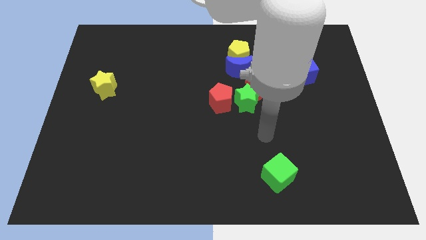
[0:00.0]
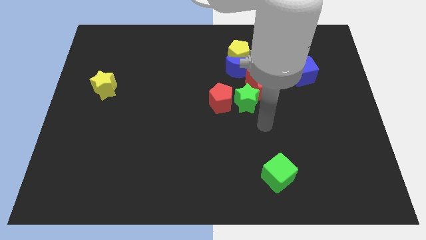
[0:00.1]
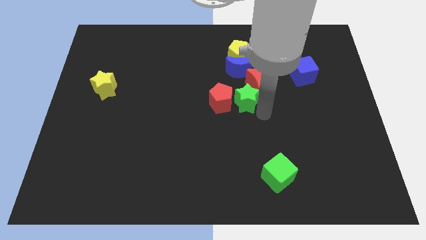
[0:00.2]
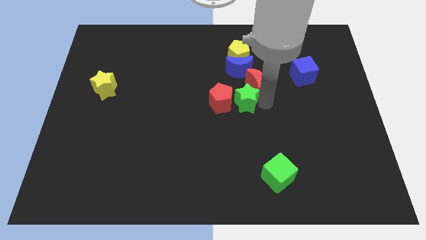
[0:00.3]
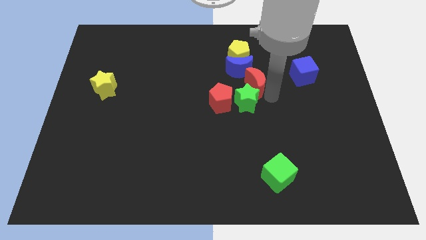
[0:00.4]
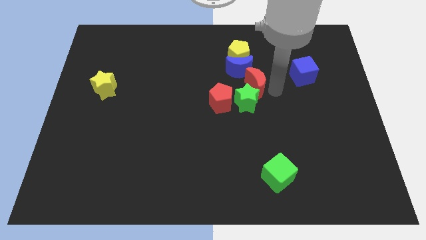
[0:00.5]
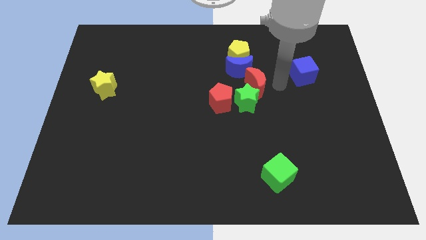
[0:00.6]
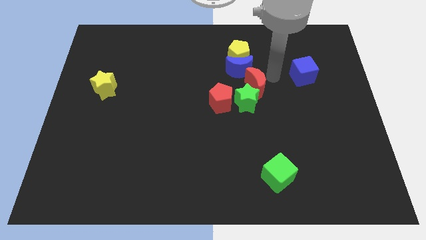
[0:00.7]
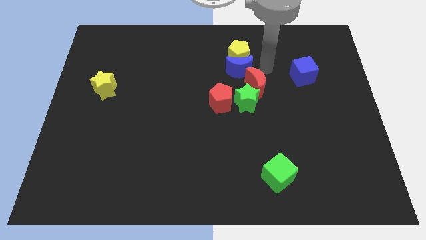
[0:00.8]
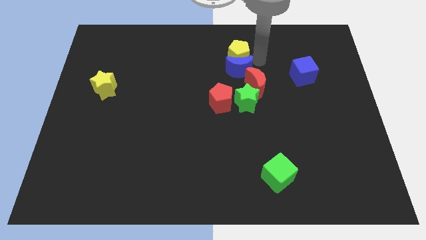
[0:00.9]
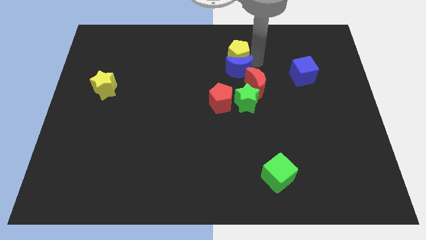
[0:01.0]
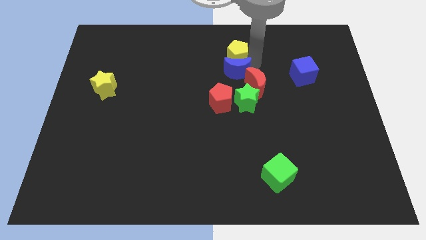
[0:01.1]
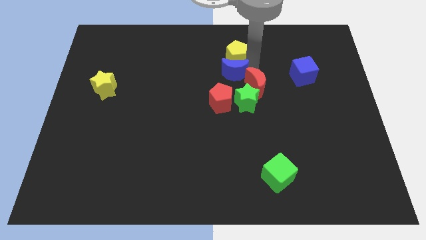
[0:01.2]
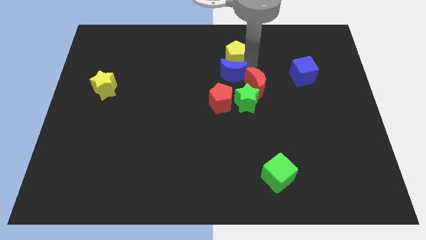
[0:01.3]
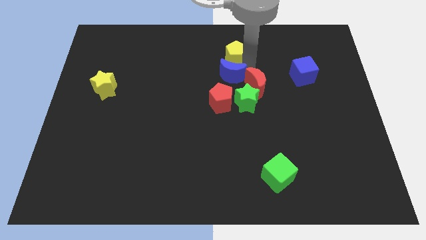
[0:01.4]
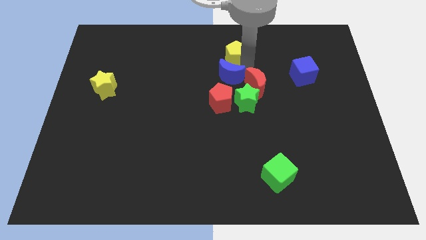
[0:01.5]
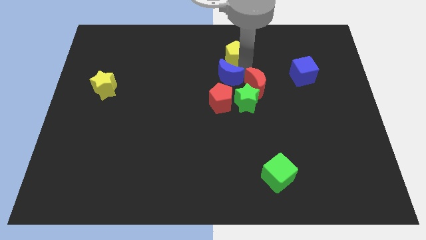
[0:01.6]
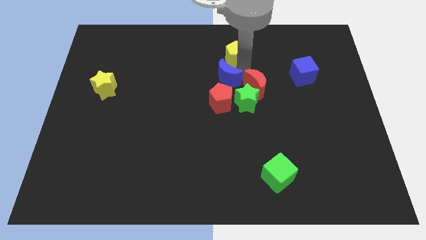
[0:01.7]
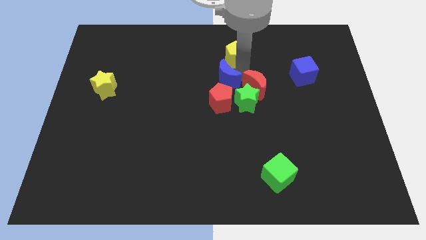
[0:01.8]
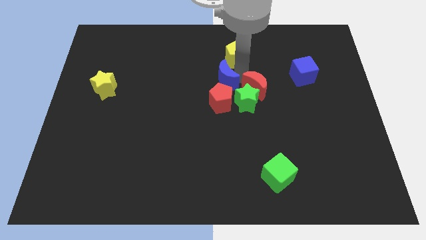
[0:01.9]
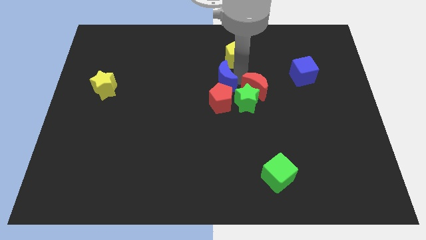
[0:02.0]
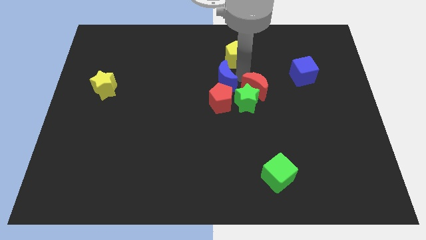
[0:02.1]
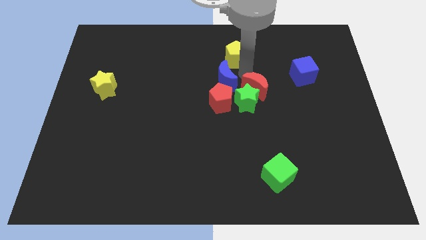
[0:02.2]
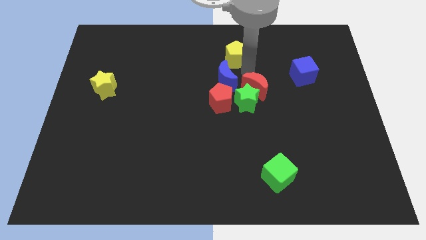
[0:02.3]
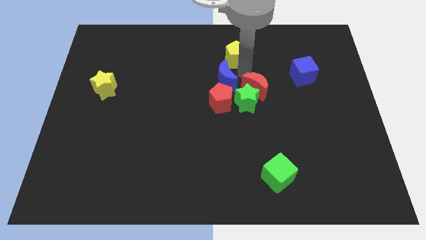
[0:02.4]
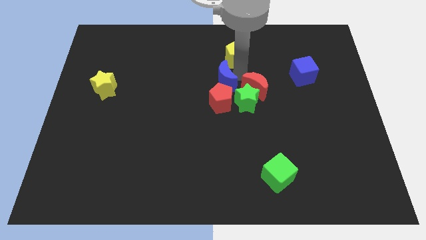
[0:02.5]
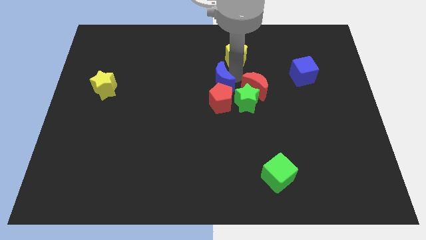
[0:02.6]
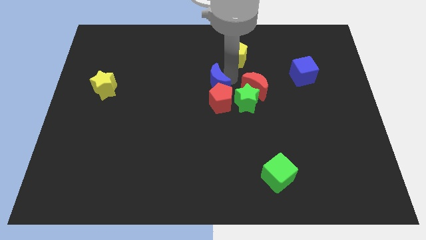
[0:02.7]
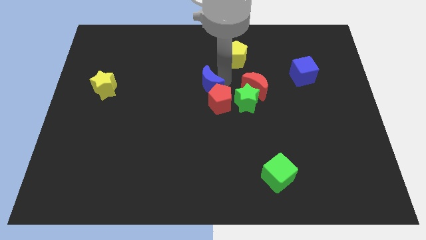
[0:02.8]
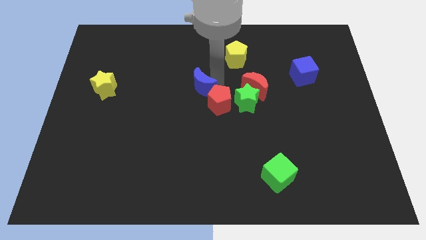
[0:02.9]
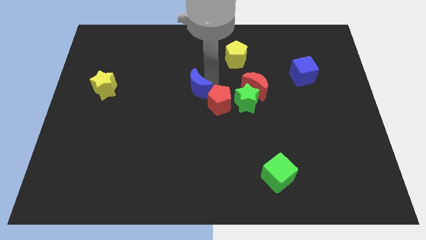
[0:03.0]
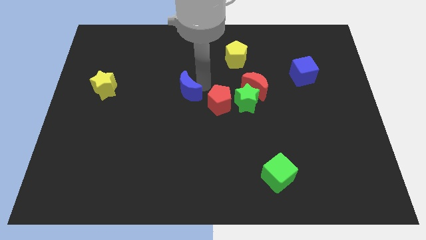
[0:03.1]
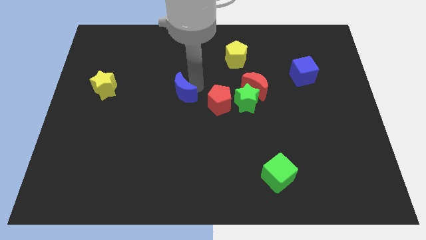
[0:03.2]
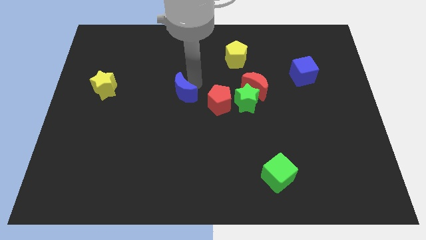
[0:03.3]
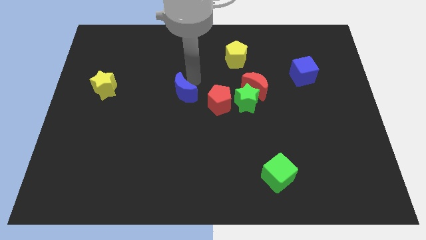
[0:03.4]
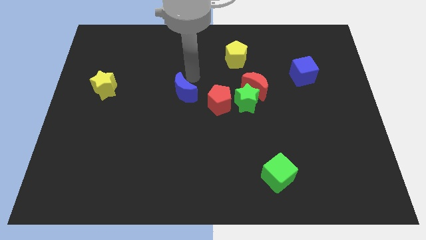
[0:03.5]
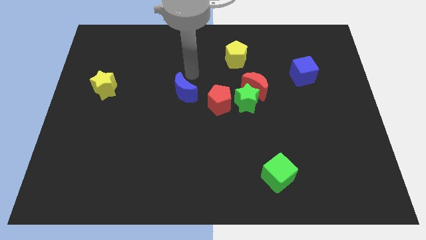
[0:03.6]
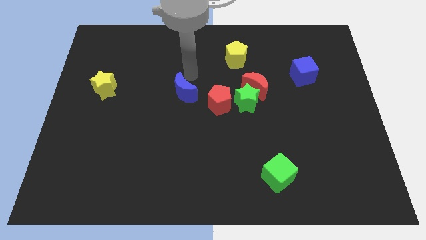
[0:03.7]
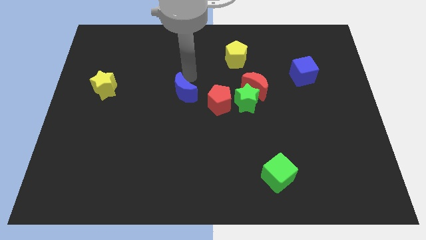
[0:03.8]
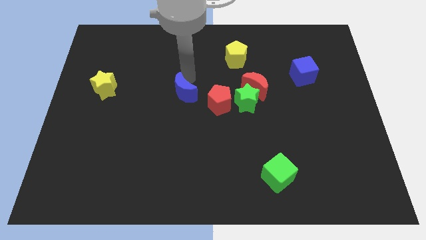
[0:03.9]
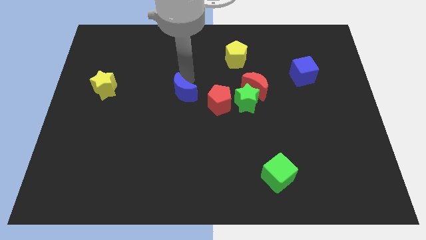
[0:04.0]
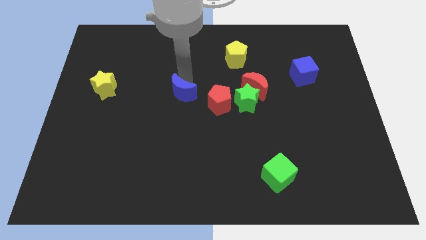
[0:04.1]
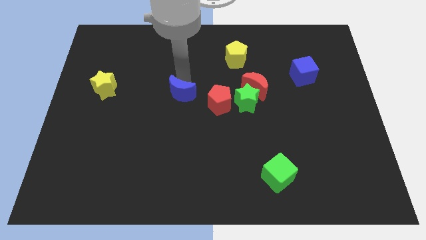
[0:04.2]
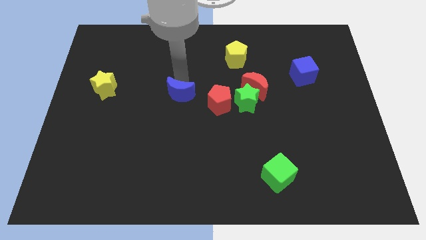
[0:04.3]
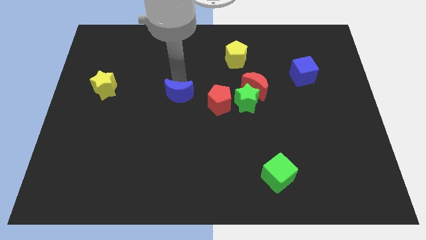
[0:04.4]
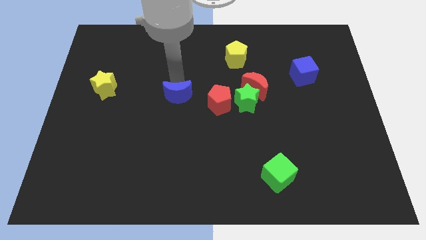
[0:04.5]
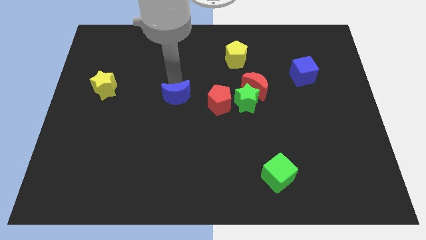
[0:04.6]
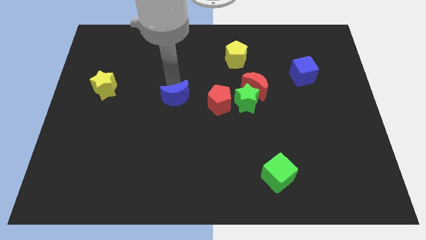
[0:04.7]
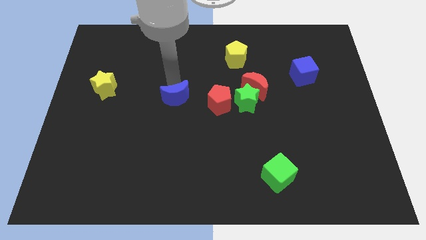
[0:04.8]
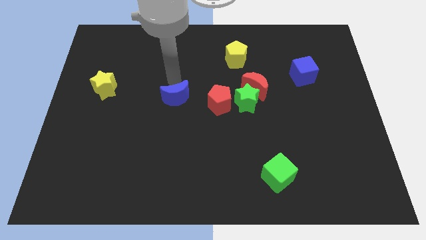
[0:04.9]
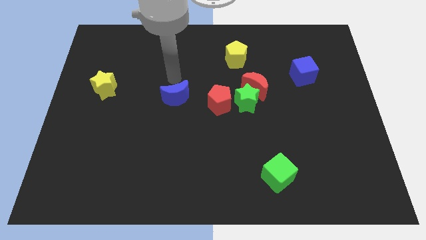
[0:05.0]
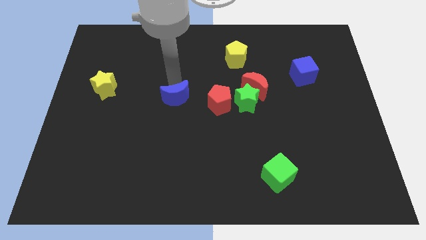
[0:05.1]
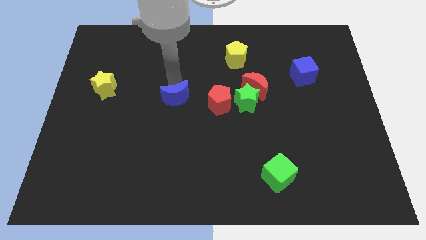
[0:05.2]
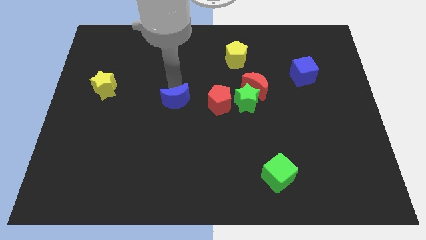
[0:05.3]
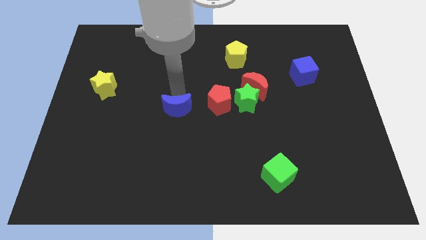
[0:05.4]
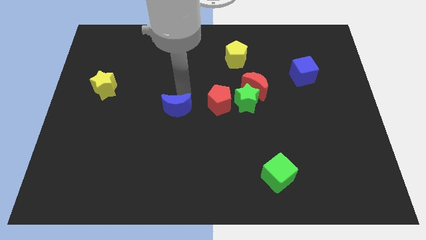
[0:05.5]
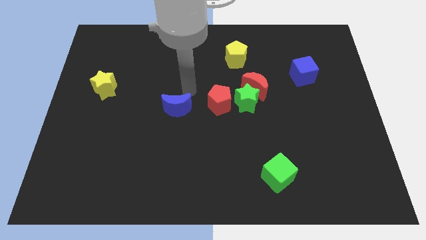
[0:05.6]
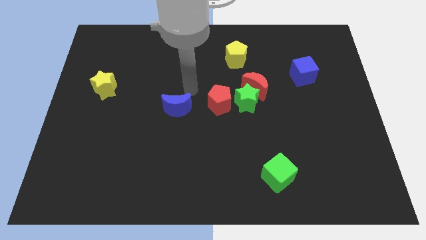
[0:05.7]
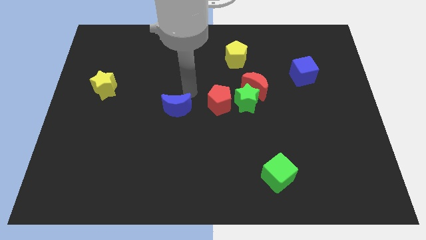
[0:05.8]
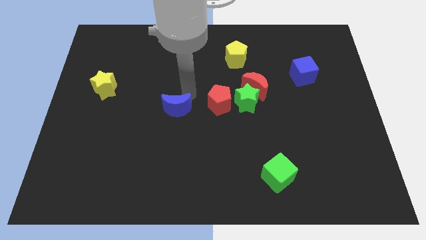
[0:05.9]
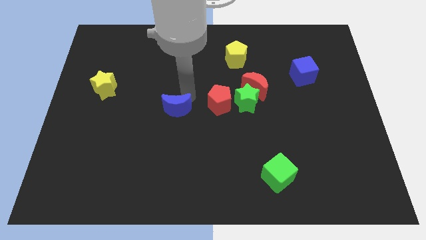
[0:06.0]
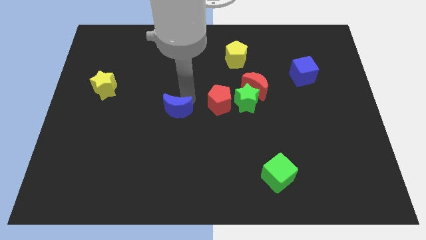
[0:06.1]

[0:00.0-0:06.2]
push the blue moon down and then to the left

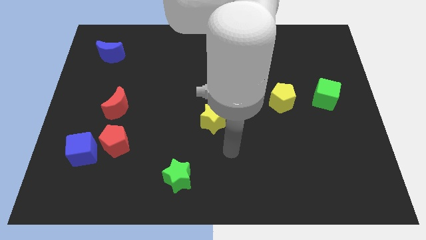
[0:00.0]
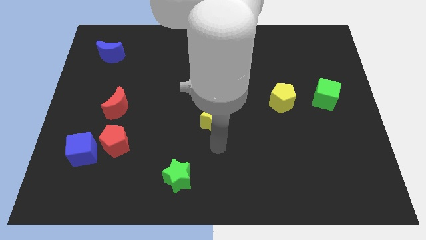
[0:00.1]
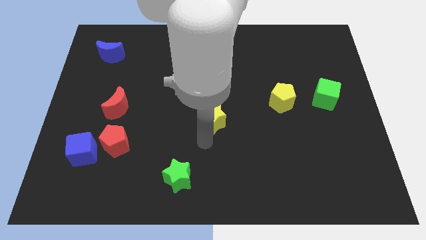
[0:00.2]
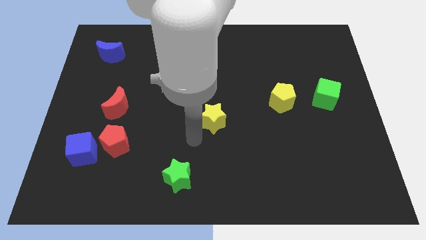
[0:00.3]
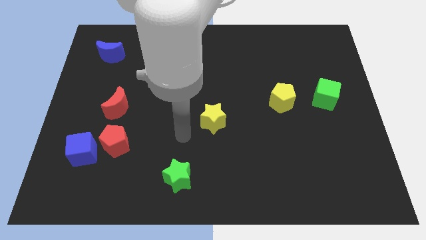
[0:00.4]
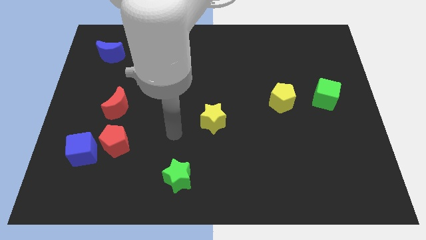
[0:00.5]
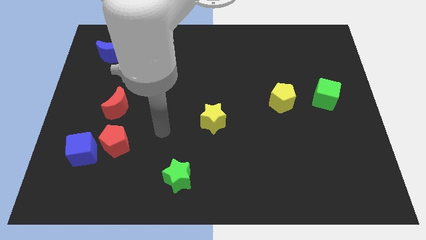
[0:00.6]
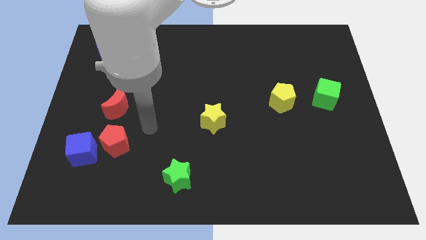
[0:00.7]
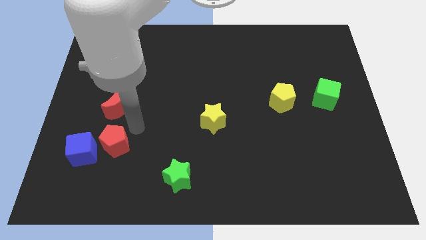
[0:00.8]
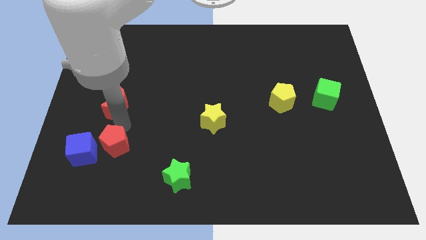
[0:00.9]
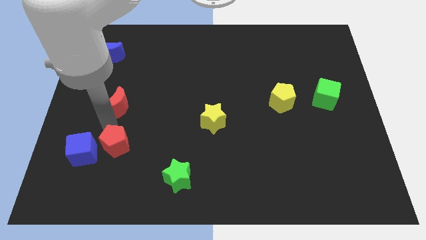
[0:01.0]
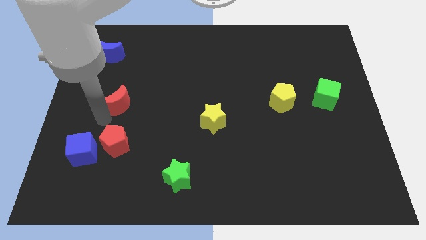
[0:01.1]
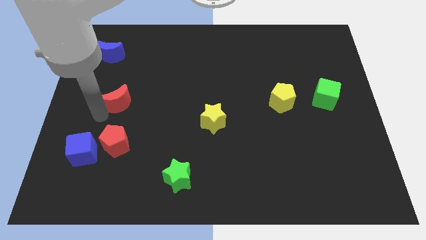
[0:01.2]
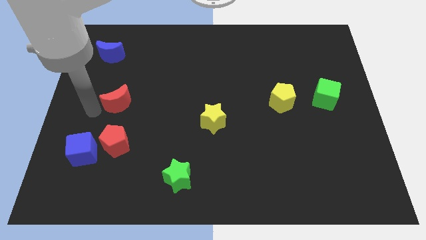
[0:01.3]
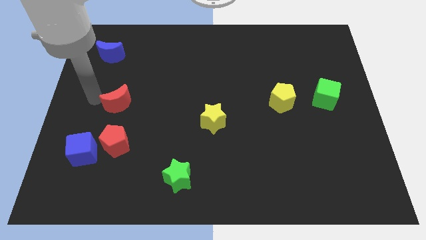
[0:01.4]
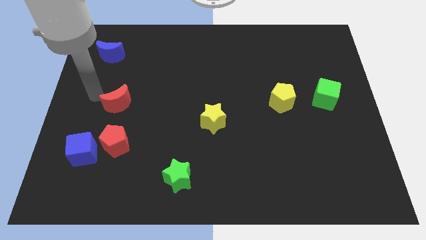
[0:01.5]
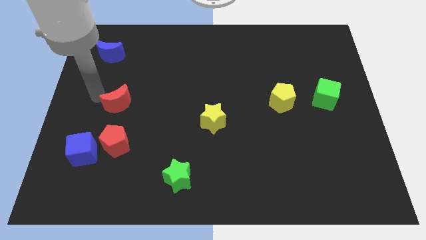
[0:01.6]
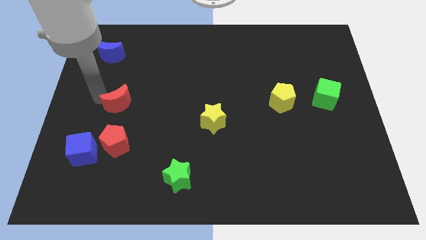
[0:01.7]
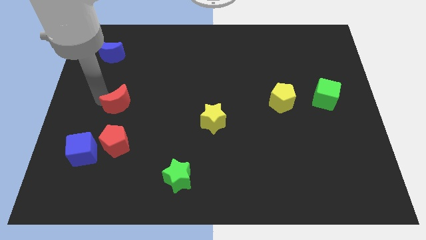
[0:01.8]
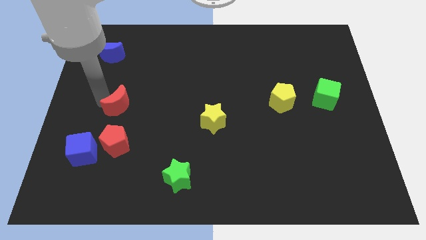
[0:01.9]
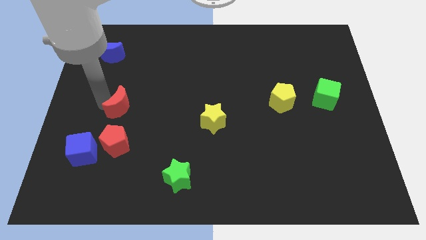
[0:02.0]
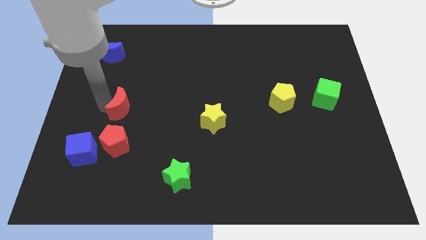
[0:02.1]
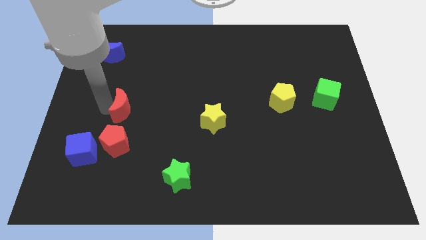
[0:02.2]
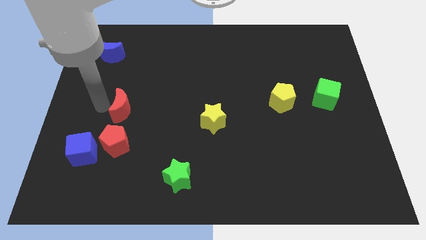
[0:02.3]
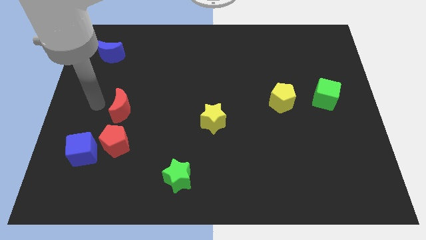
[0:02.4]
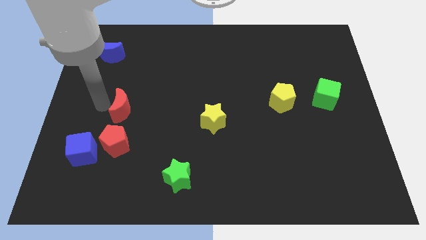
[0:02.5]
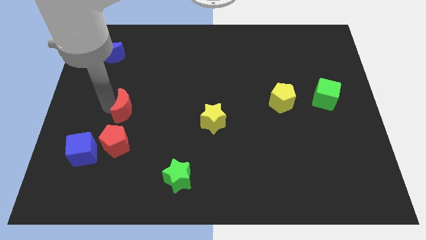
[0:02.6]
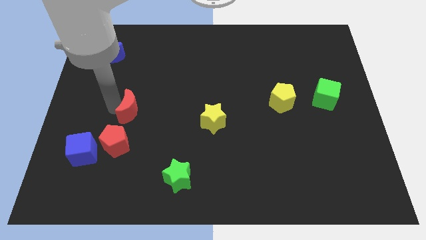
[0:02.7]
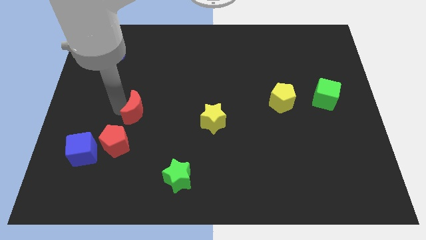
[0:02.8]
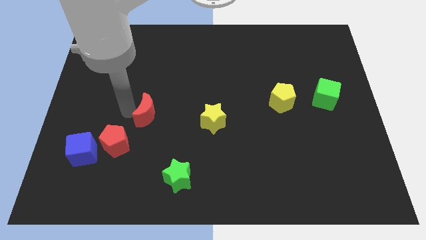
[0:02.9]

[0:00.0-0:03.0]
slide the red moon a little bit to the right
